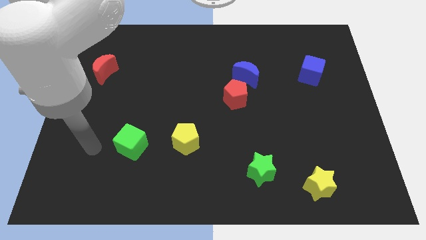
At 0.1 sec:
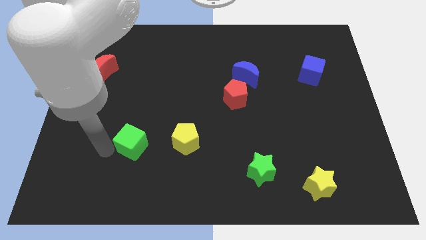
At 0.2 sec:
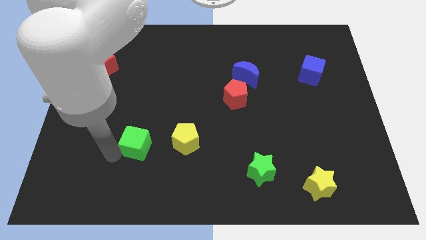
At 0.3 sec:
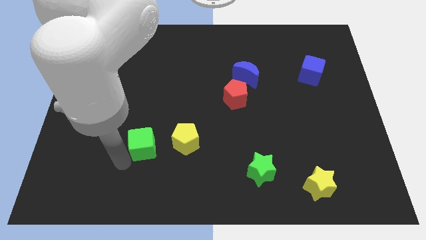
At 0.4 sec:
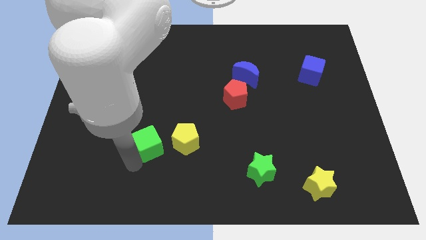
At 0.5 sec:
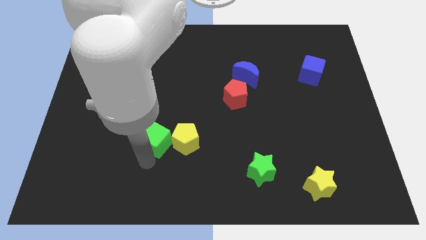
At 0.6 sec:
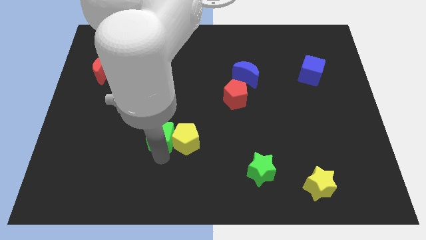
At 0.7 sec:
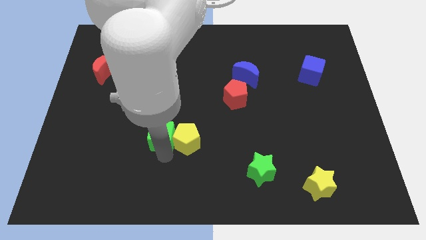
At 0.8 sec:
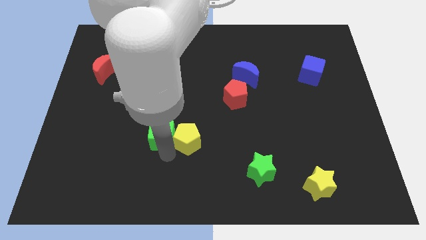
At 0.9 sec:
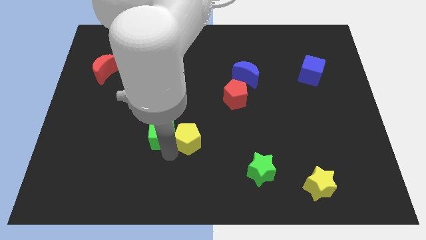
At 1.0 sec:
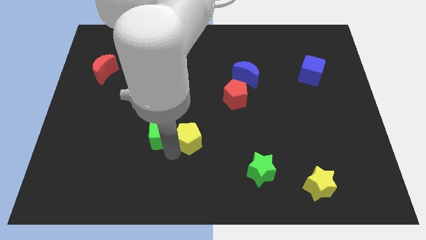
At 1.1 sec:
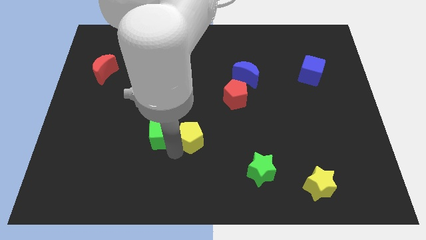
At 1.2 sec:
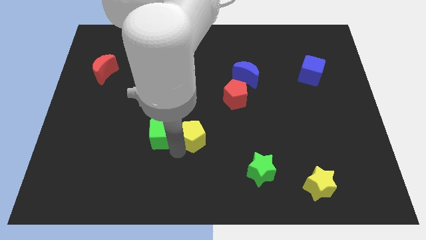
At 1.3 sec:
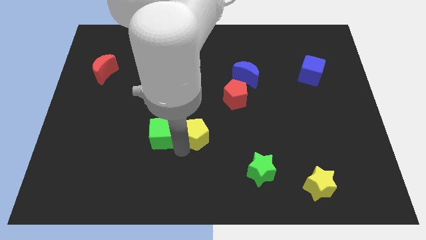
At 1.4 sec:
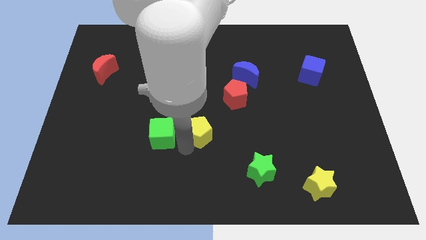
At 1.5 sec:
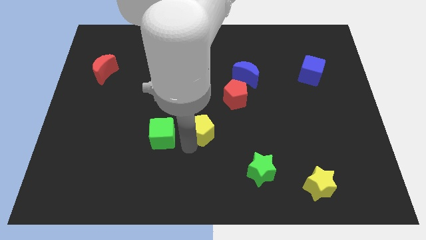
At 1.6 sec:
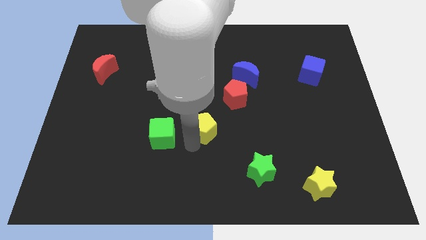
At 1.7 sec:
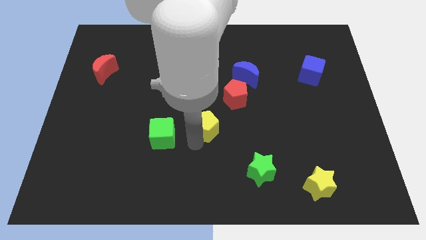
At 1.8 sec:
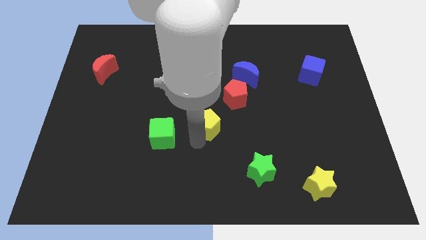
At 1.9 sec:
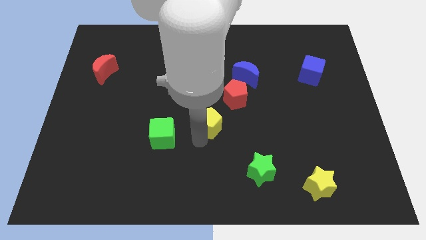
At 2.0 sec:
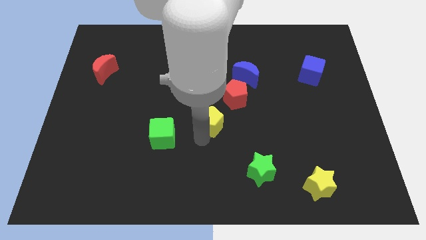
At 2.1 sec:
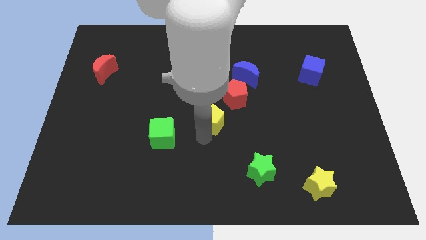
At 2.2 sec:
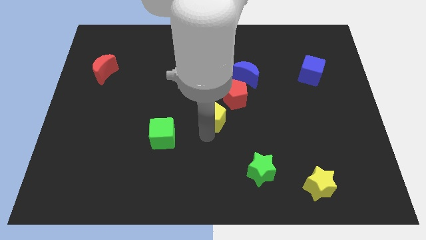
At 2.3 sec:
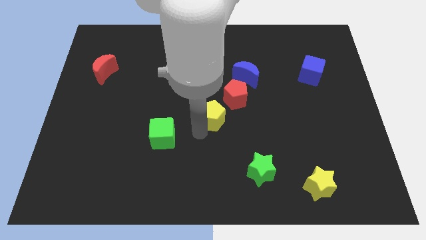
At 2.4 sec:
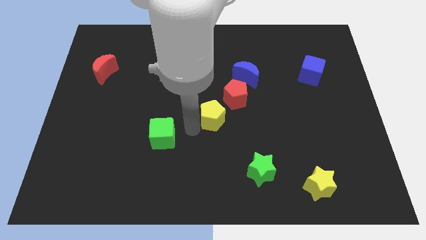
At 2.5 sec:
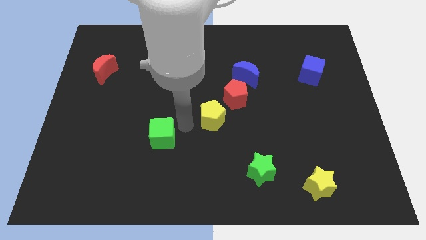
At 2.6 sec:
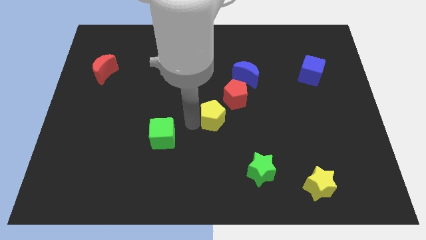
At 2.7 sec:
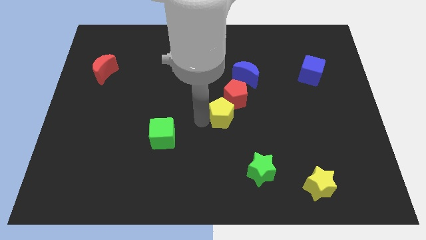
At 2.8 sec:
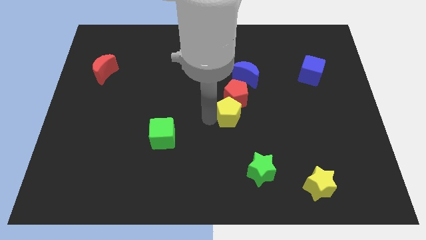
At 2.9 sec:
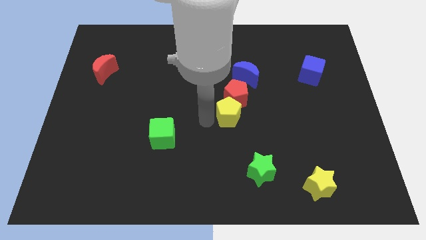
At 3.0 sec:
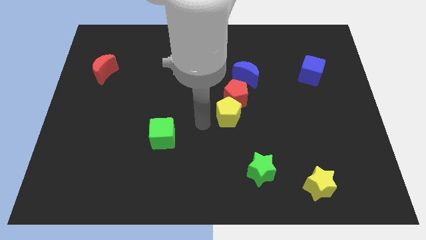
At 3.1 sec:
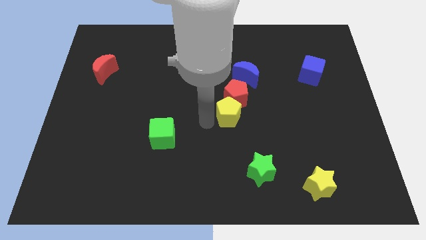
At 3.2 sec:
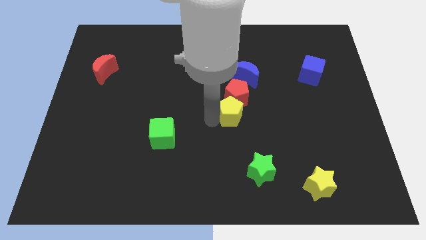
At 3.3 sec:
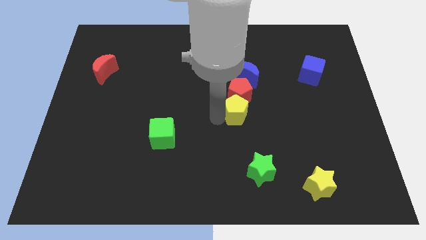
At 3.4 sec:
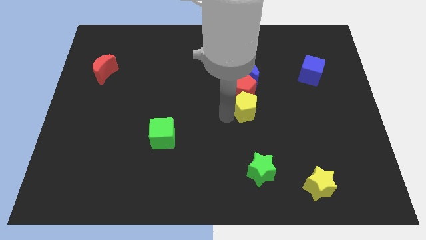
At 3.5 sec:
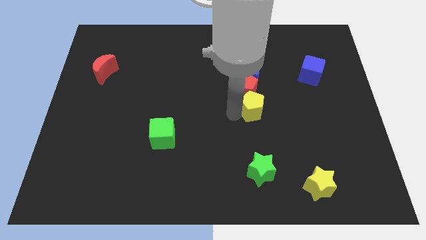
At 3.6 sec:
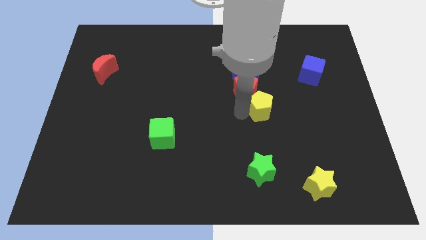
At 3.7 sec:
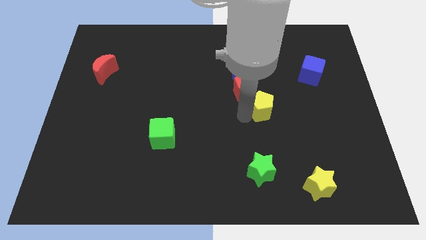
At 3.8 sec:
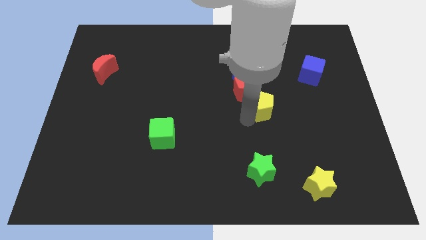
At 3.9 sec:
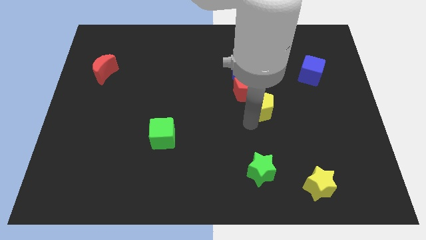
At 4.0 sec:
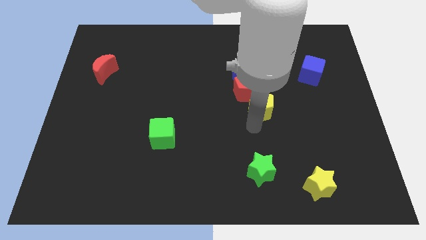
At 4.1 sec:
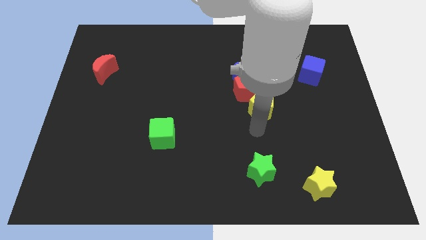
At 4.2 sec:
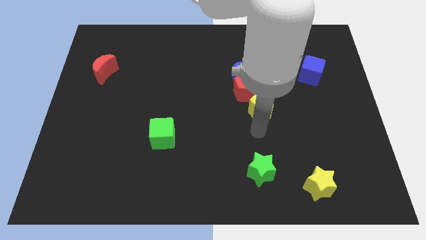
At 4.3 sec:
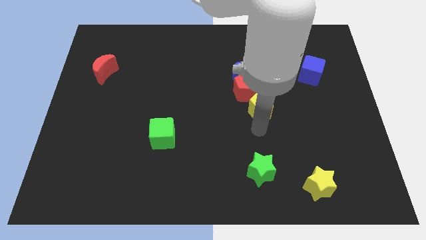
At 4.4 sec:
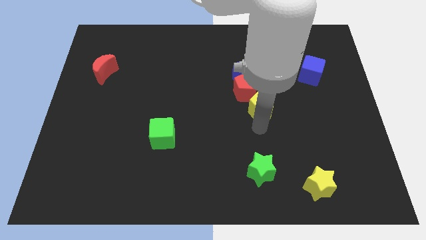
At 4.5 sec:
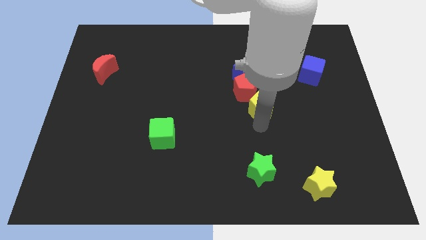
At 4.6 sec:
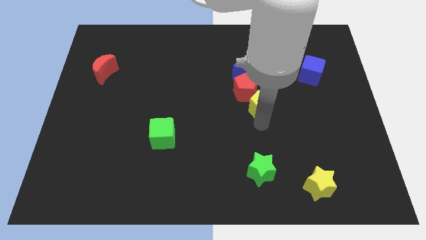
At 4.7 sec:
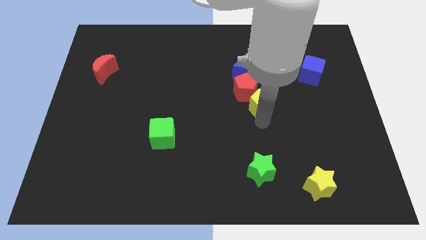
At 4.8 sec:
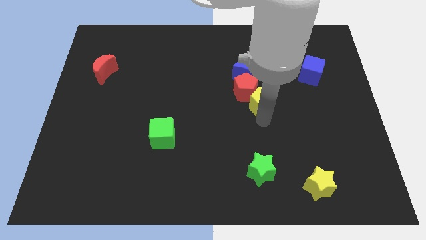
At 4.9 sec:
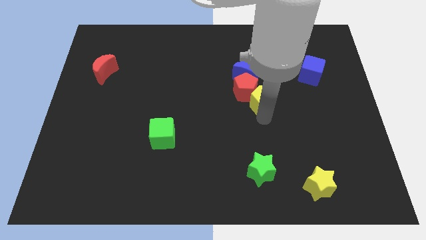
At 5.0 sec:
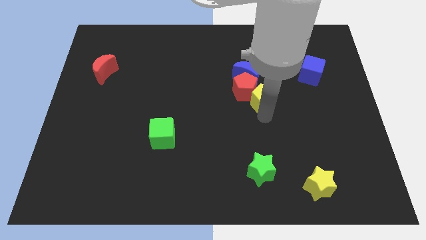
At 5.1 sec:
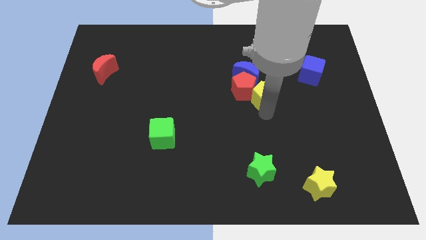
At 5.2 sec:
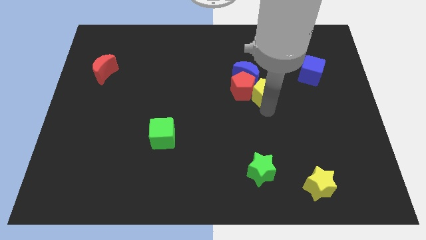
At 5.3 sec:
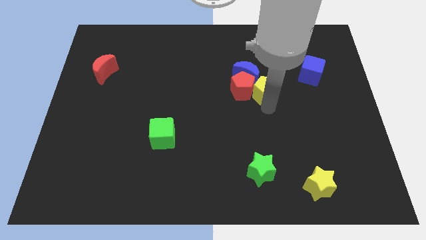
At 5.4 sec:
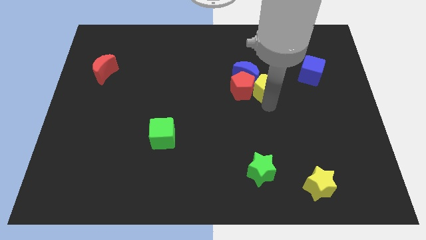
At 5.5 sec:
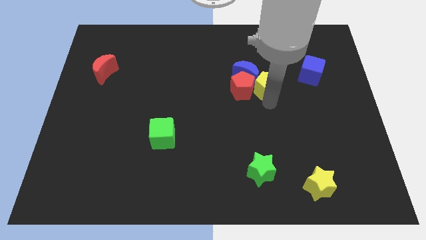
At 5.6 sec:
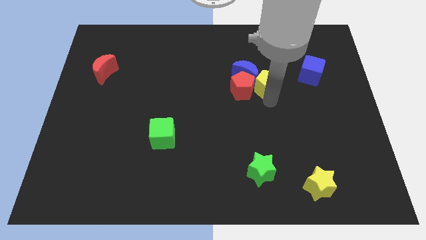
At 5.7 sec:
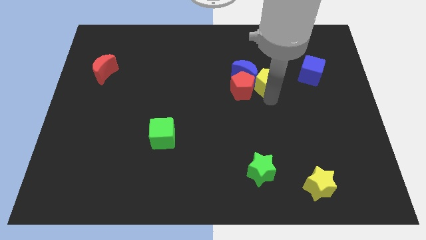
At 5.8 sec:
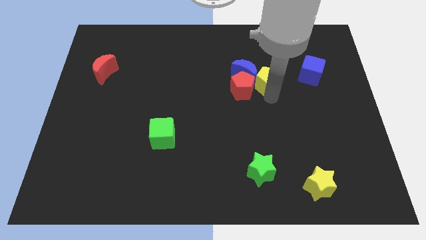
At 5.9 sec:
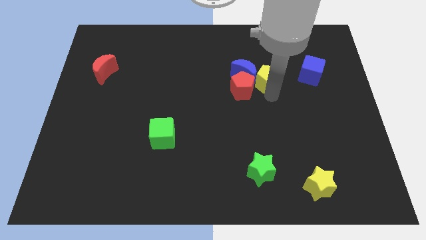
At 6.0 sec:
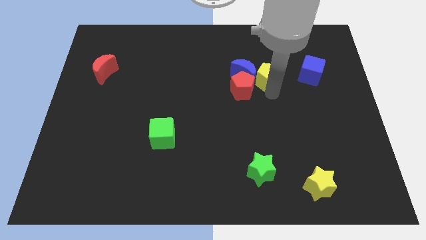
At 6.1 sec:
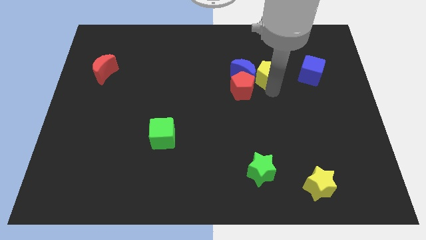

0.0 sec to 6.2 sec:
push the yellow pentagon to the top right of the blue moon
